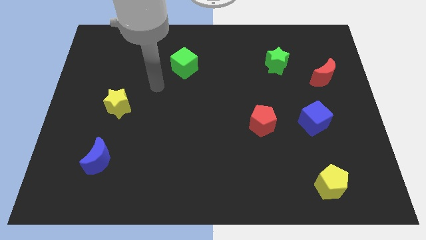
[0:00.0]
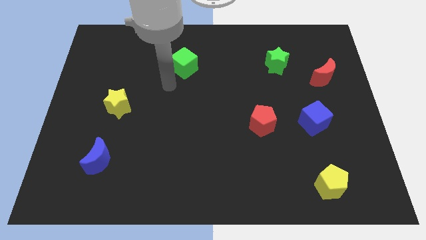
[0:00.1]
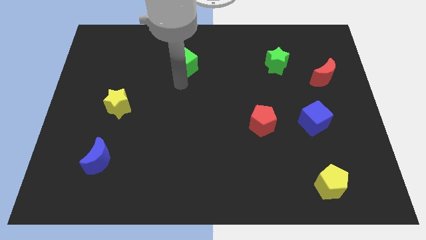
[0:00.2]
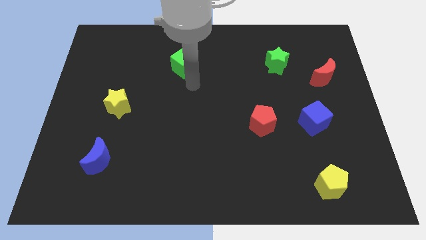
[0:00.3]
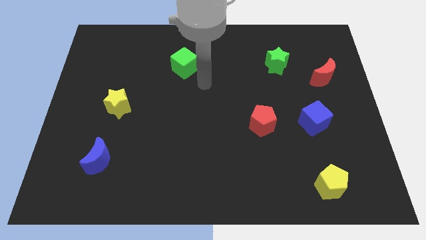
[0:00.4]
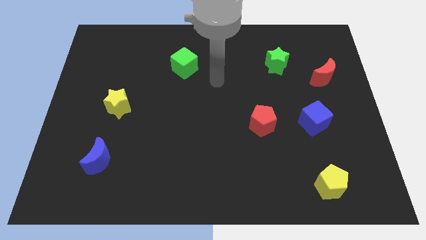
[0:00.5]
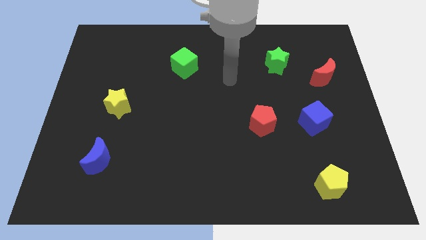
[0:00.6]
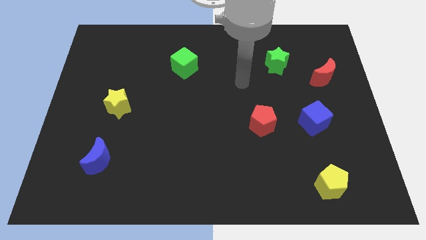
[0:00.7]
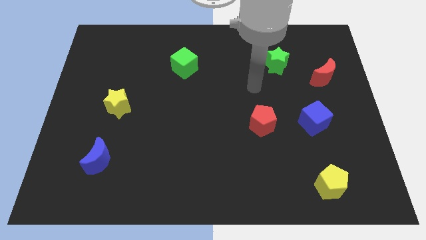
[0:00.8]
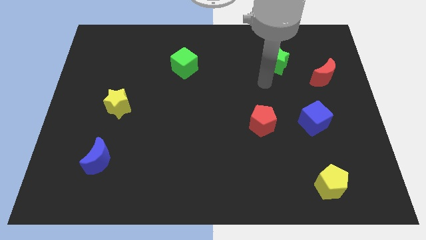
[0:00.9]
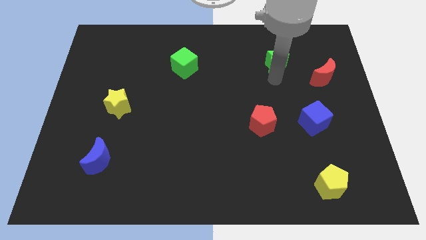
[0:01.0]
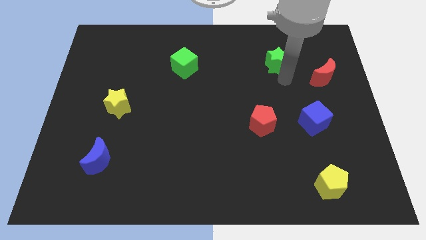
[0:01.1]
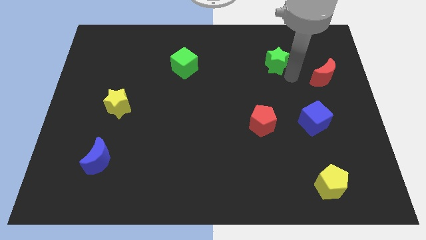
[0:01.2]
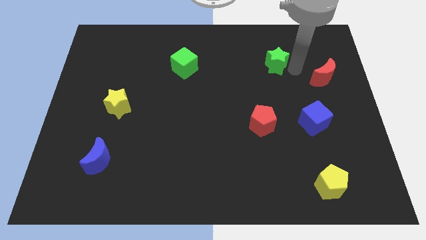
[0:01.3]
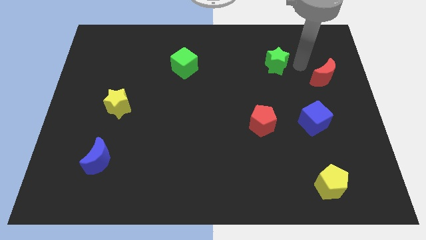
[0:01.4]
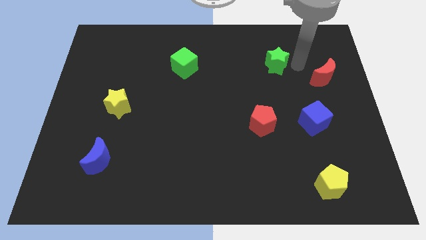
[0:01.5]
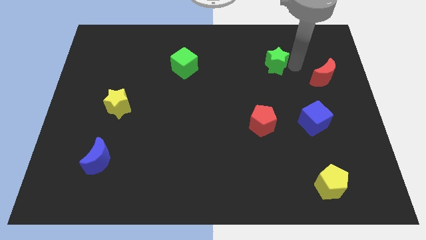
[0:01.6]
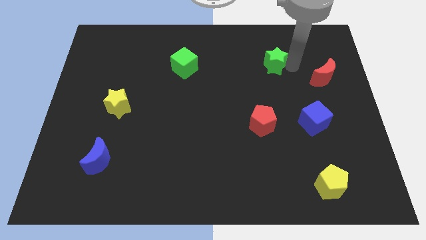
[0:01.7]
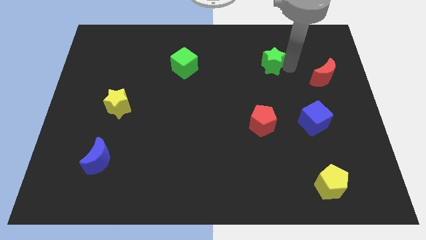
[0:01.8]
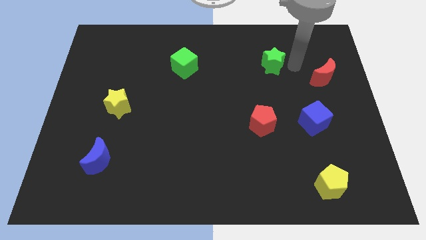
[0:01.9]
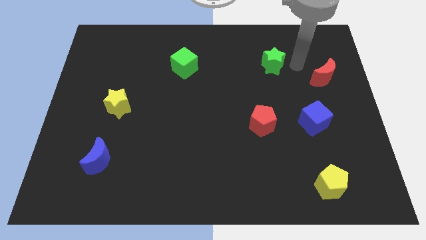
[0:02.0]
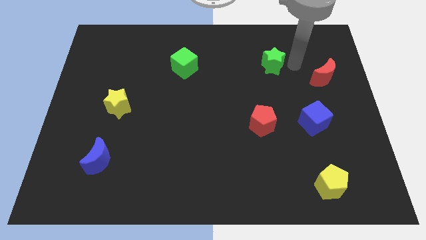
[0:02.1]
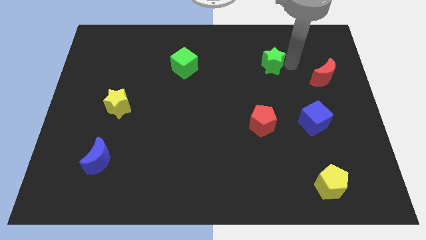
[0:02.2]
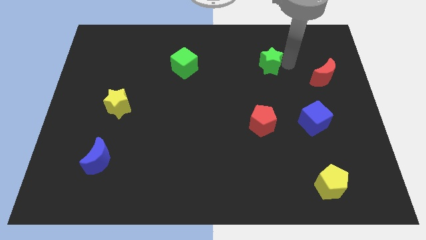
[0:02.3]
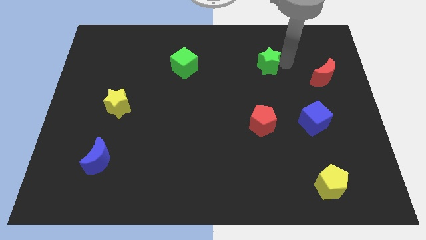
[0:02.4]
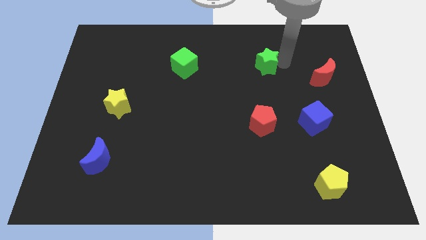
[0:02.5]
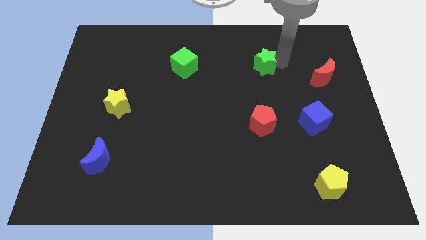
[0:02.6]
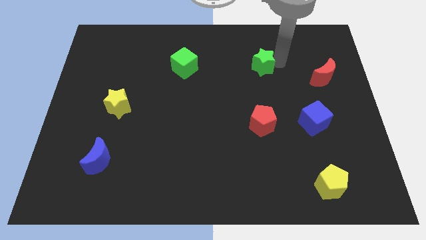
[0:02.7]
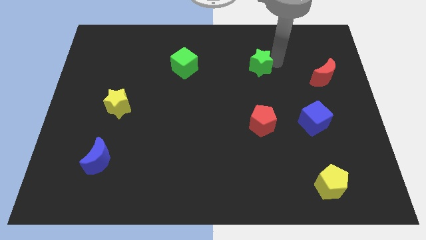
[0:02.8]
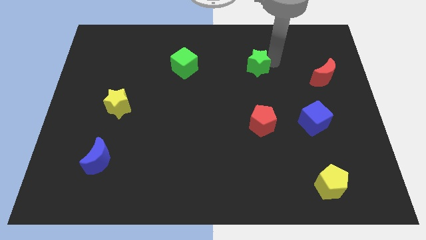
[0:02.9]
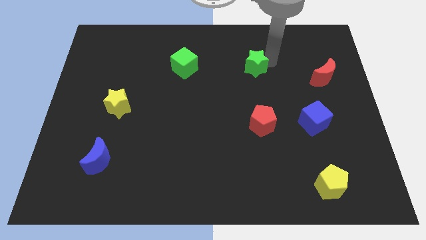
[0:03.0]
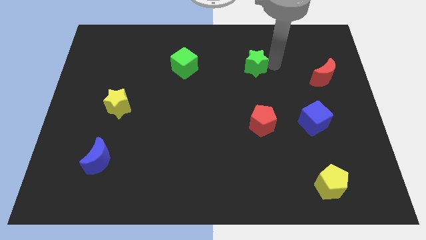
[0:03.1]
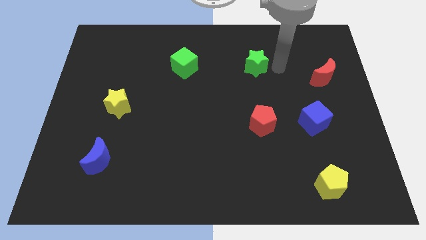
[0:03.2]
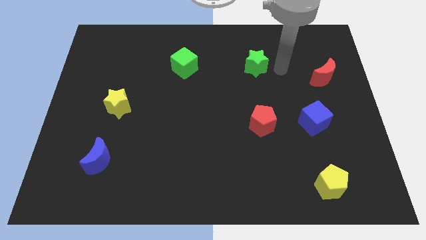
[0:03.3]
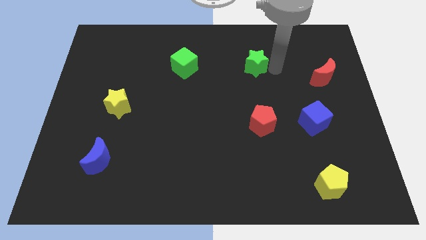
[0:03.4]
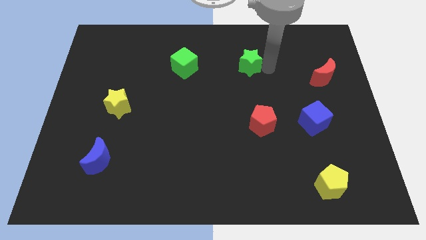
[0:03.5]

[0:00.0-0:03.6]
push the green star left slightly

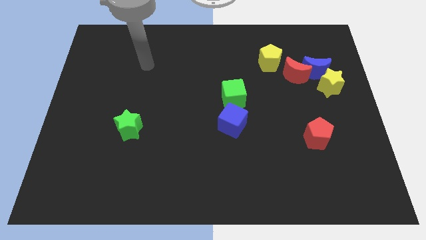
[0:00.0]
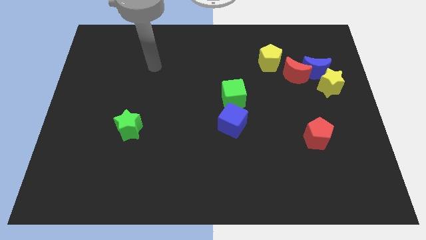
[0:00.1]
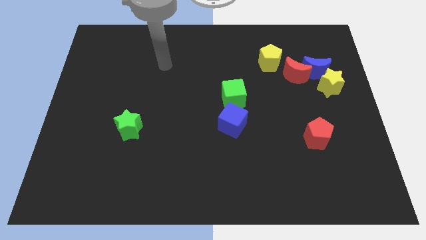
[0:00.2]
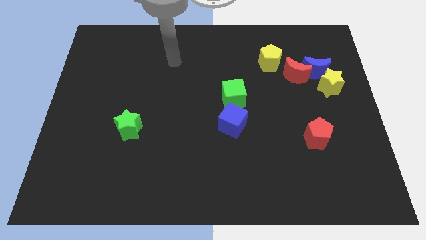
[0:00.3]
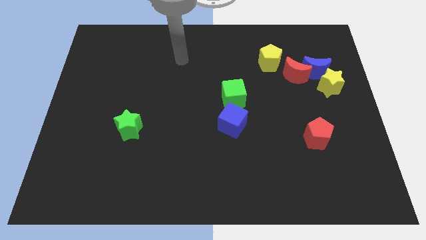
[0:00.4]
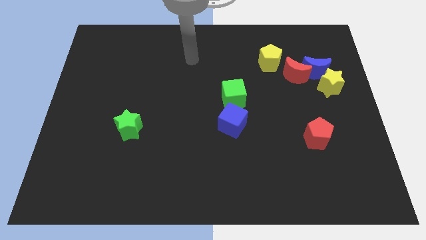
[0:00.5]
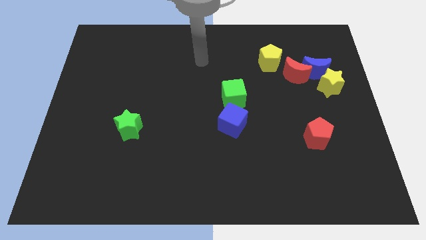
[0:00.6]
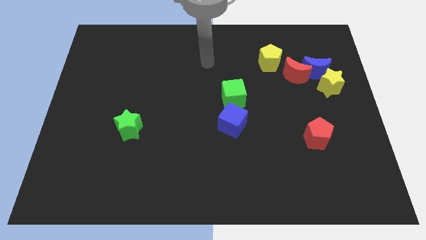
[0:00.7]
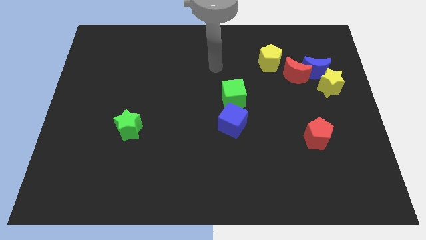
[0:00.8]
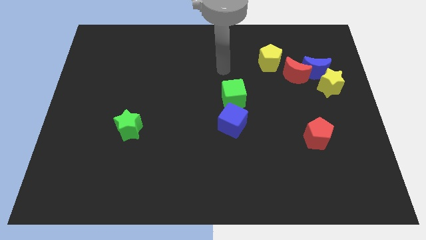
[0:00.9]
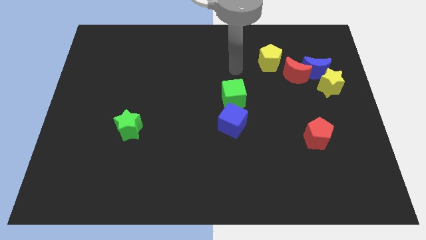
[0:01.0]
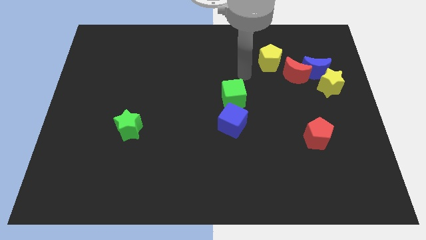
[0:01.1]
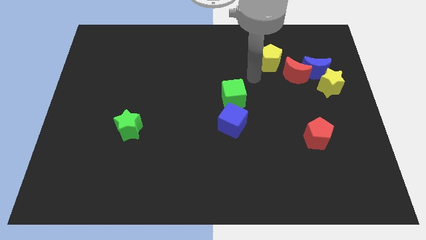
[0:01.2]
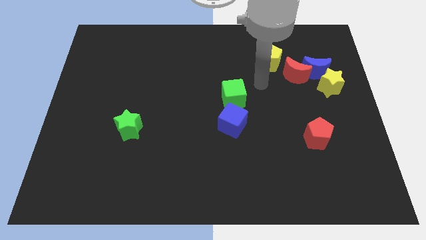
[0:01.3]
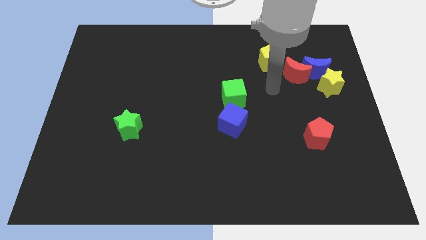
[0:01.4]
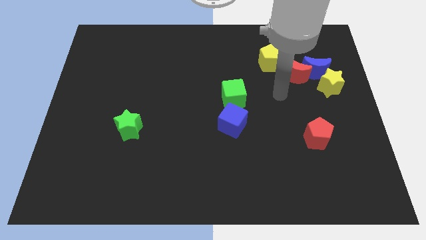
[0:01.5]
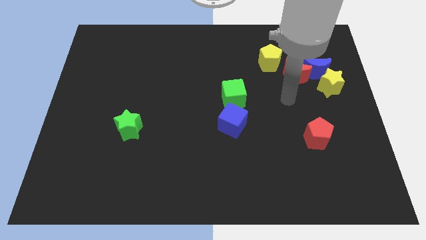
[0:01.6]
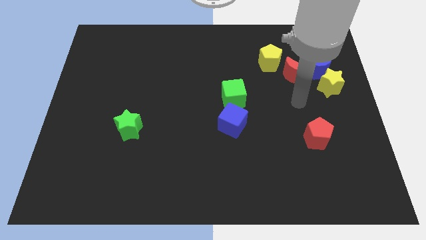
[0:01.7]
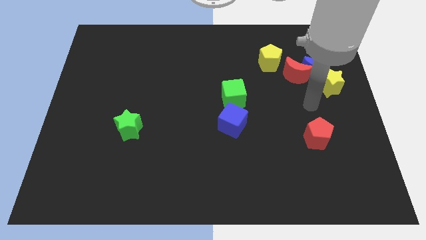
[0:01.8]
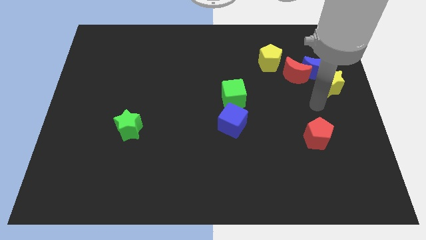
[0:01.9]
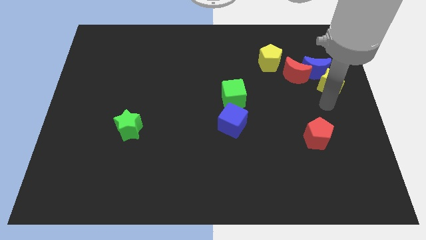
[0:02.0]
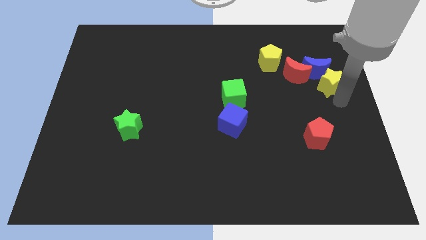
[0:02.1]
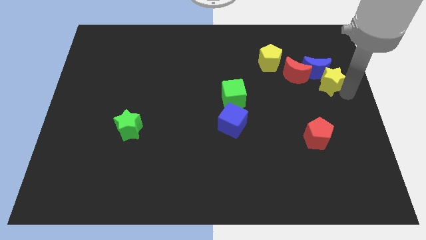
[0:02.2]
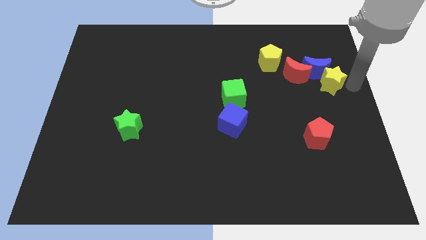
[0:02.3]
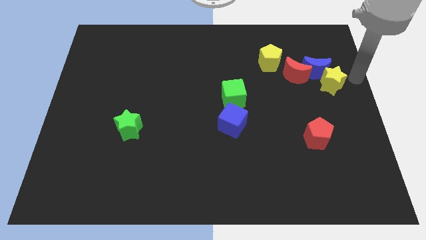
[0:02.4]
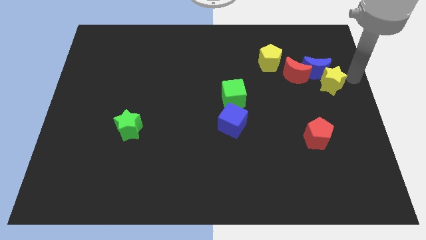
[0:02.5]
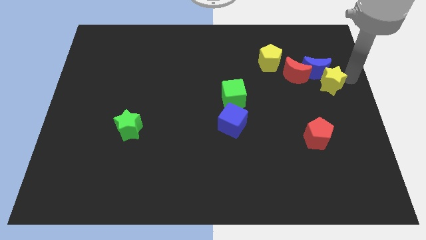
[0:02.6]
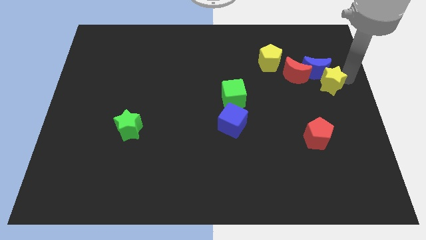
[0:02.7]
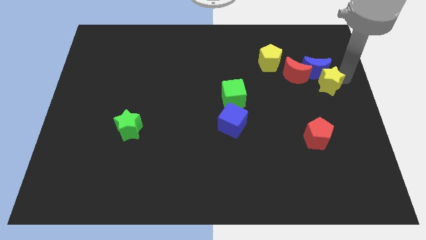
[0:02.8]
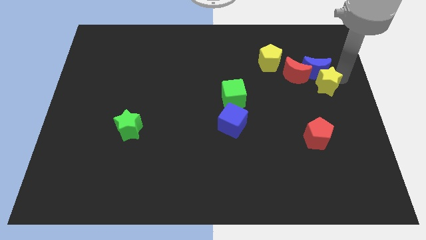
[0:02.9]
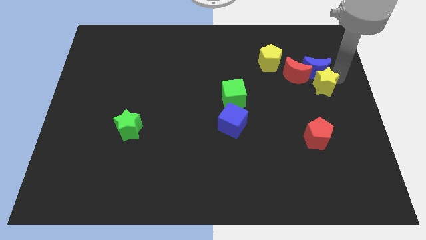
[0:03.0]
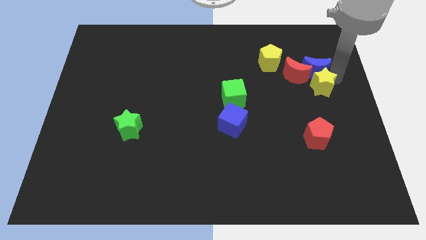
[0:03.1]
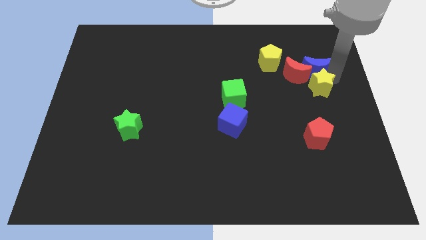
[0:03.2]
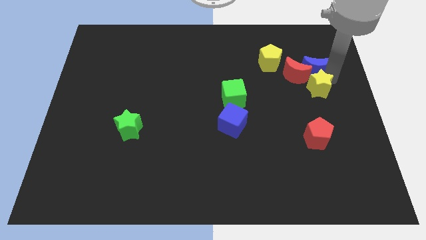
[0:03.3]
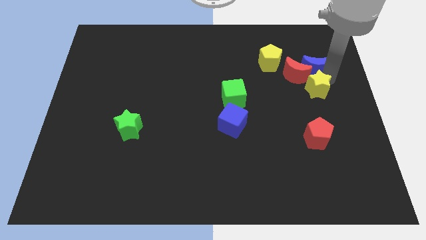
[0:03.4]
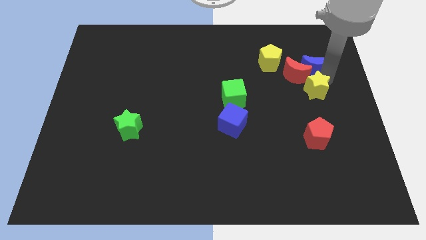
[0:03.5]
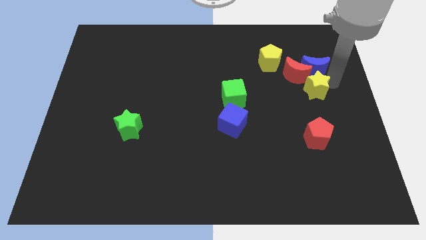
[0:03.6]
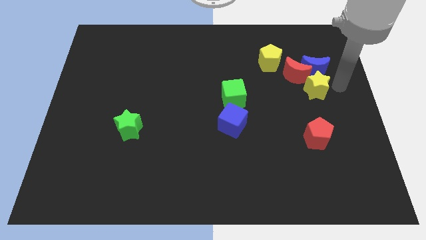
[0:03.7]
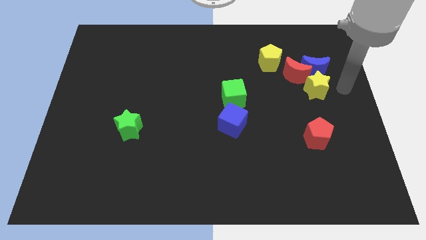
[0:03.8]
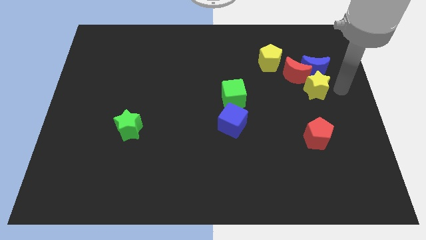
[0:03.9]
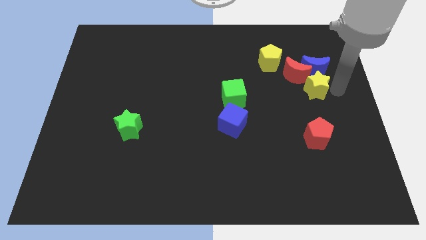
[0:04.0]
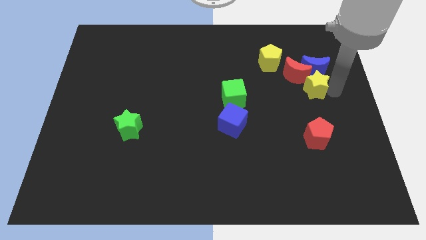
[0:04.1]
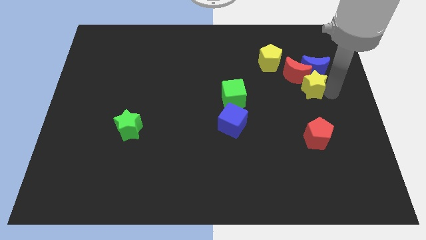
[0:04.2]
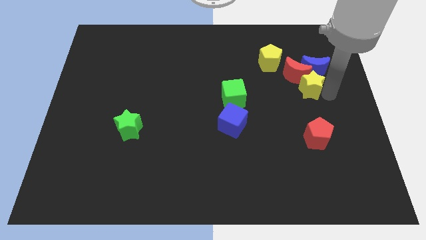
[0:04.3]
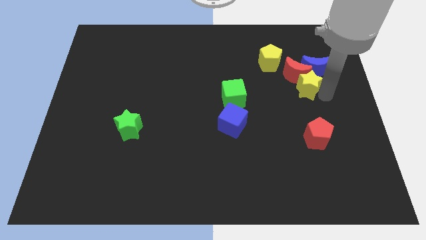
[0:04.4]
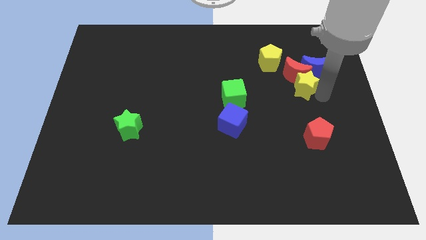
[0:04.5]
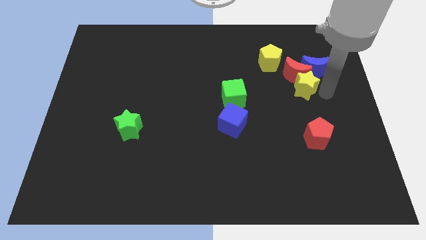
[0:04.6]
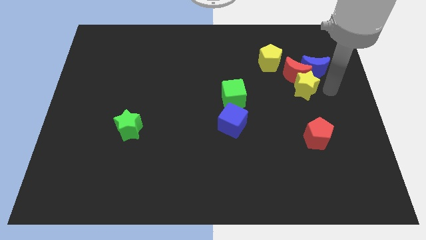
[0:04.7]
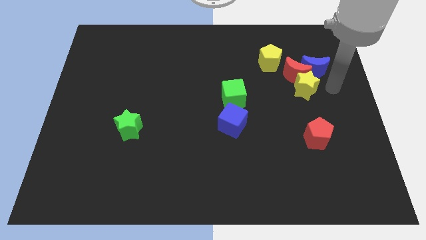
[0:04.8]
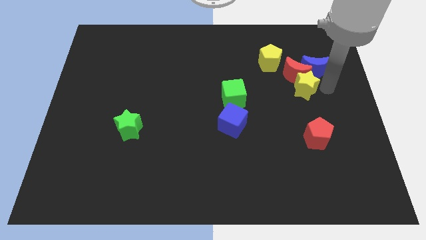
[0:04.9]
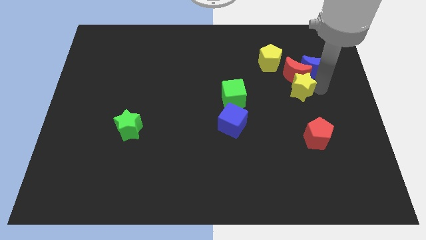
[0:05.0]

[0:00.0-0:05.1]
push the yellow star somewhat to the left
